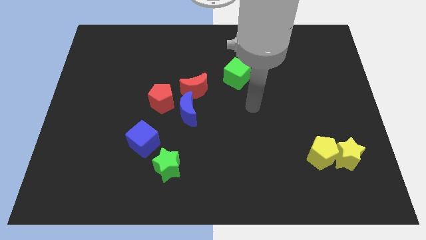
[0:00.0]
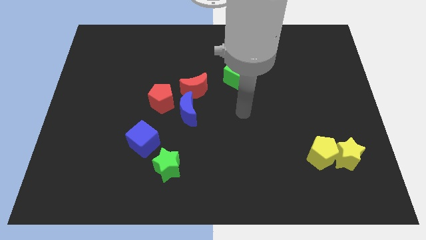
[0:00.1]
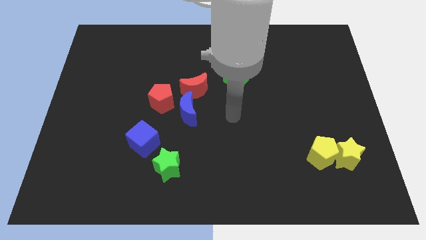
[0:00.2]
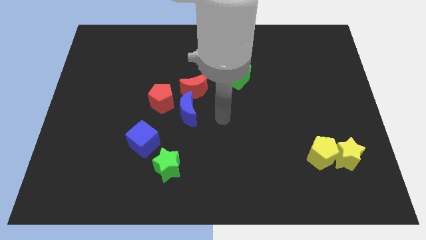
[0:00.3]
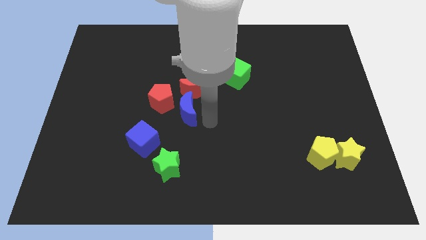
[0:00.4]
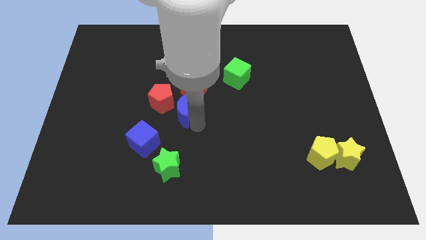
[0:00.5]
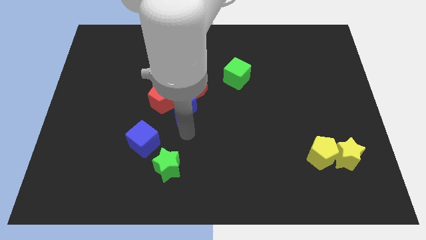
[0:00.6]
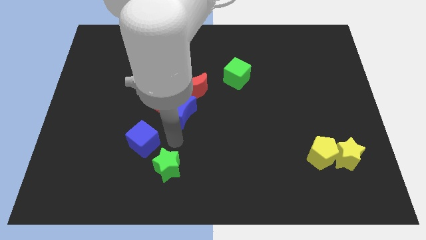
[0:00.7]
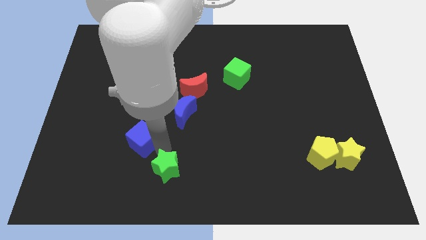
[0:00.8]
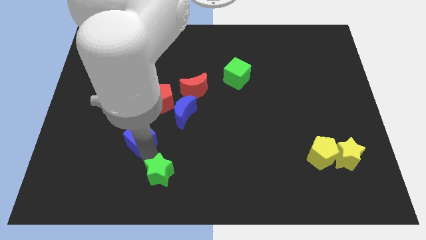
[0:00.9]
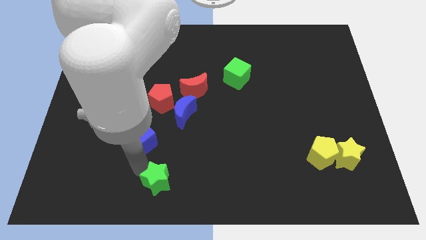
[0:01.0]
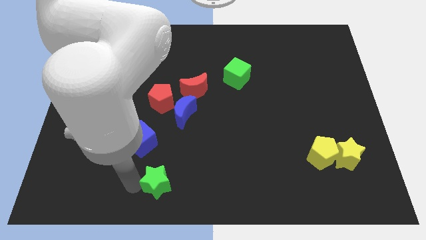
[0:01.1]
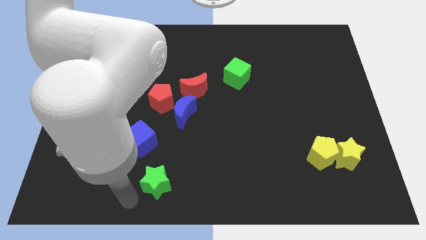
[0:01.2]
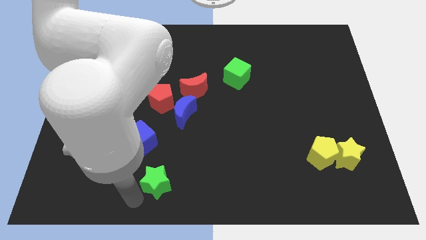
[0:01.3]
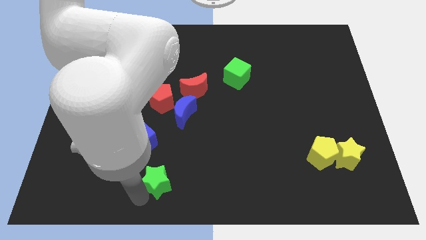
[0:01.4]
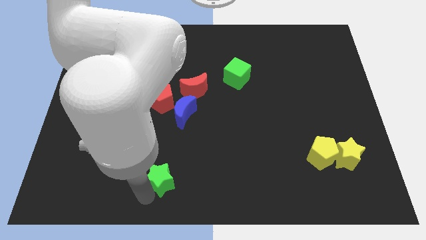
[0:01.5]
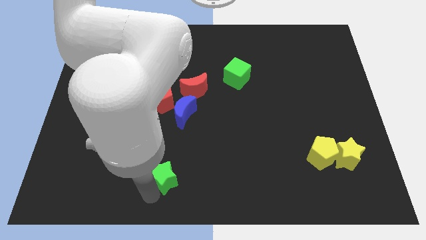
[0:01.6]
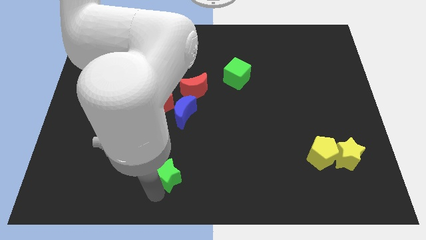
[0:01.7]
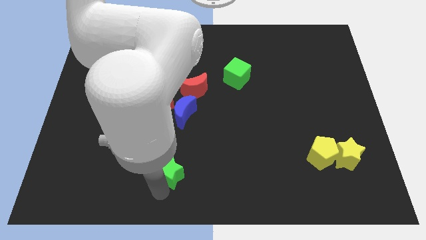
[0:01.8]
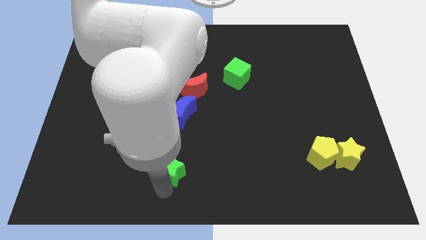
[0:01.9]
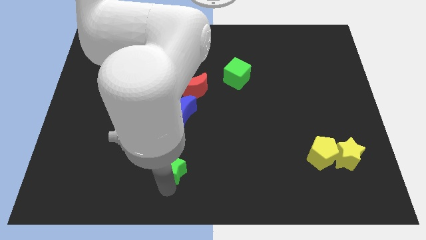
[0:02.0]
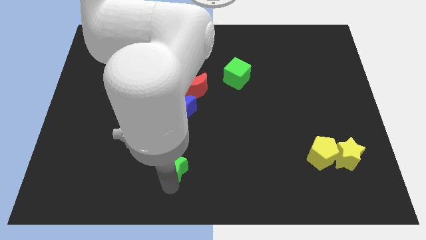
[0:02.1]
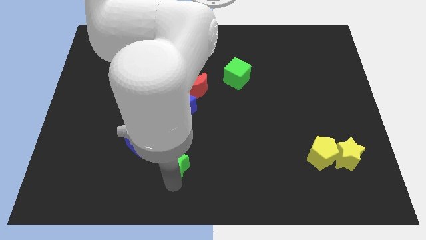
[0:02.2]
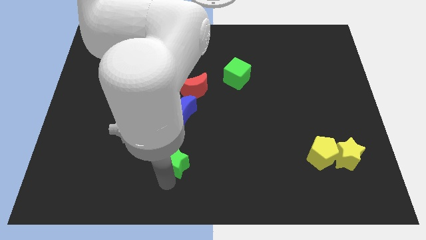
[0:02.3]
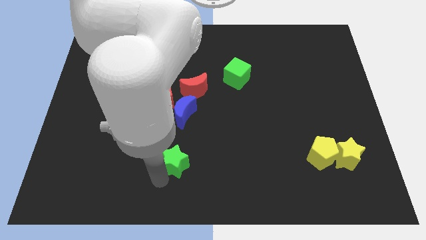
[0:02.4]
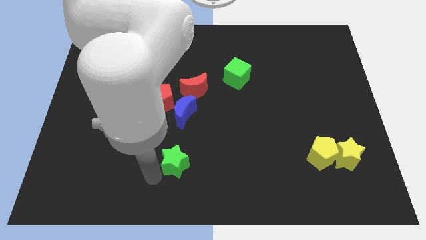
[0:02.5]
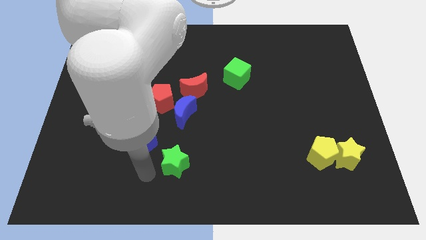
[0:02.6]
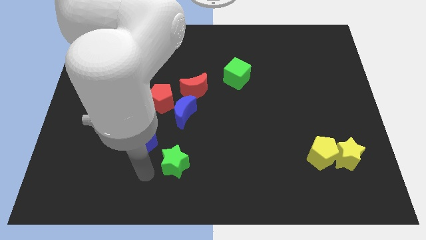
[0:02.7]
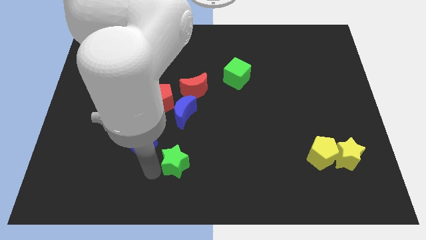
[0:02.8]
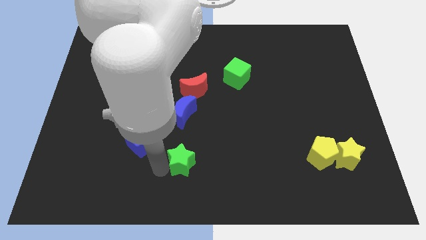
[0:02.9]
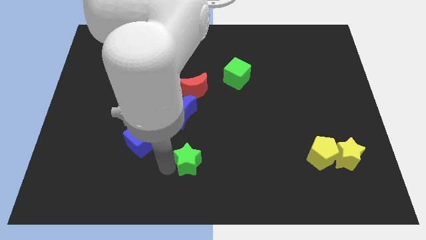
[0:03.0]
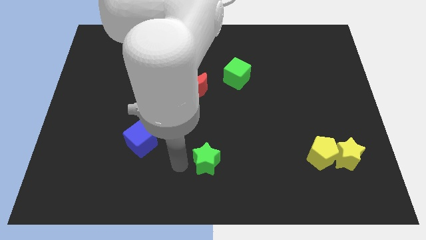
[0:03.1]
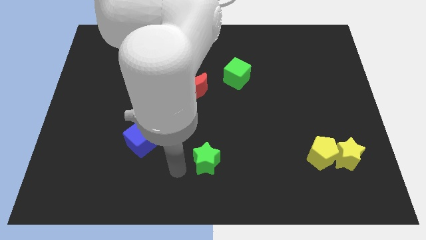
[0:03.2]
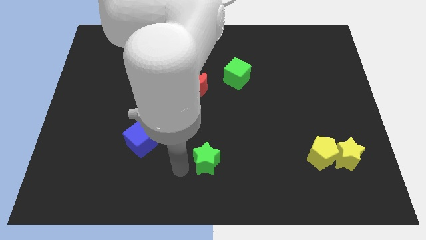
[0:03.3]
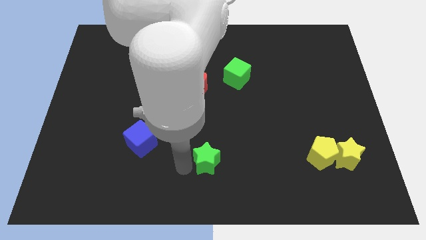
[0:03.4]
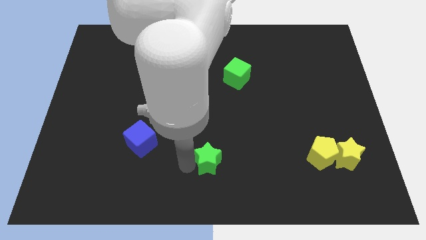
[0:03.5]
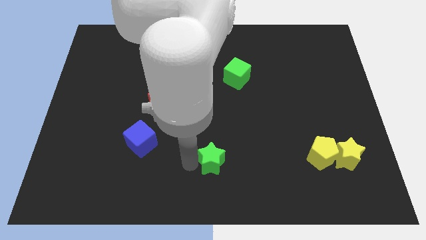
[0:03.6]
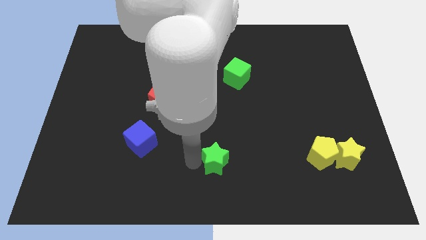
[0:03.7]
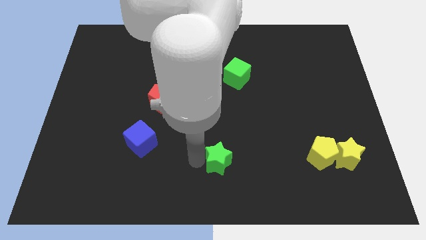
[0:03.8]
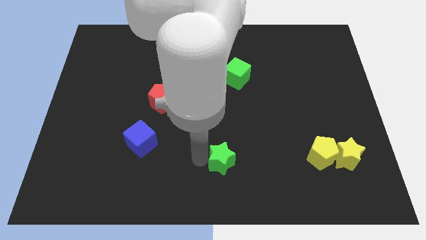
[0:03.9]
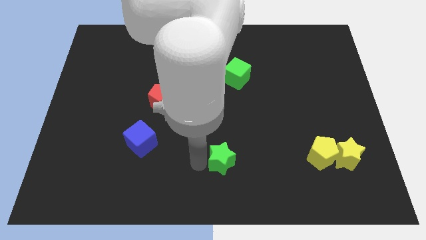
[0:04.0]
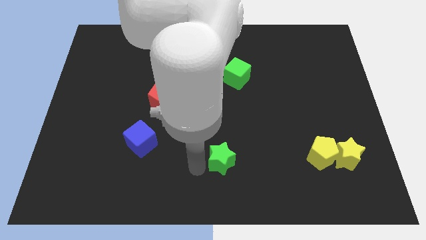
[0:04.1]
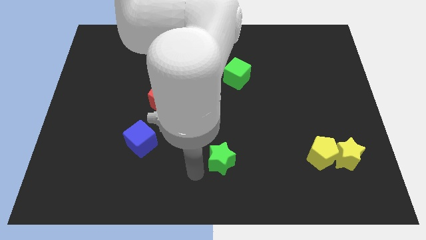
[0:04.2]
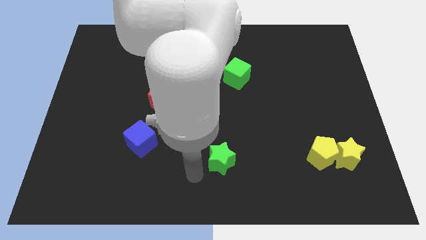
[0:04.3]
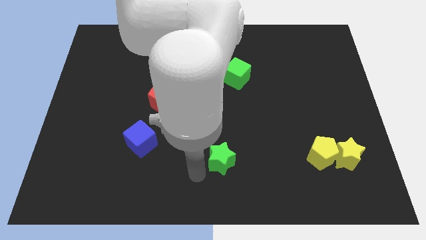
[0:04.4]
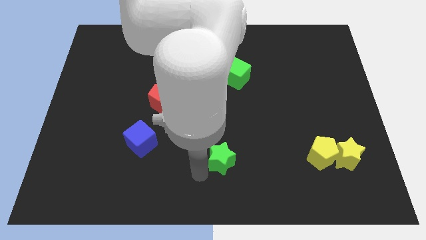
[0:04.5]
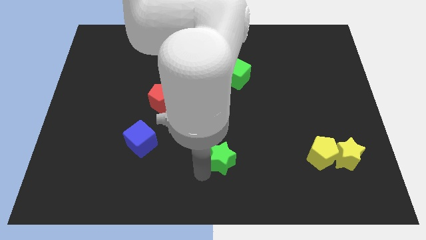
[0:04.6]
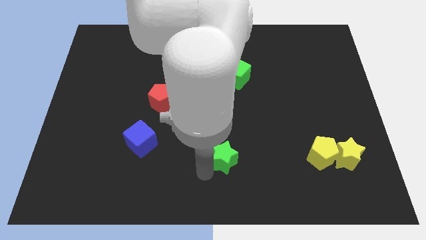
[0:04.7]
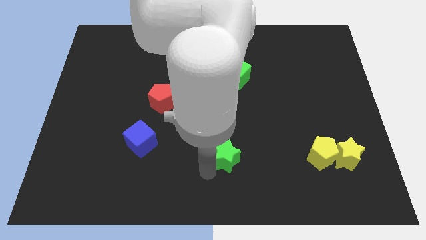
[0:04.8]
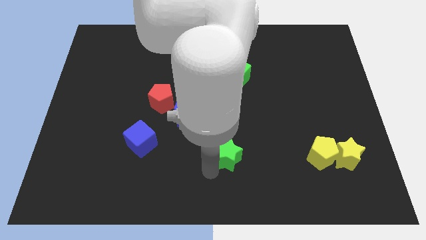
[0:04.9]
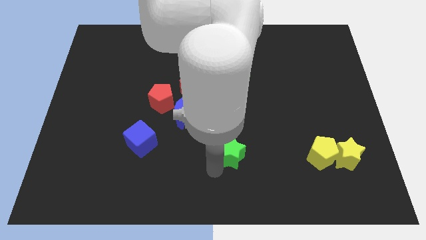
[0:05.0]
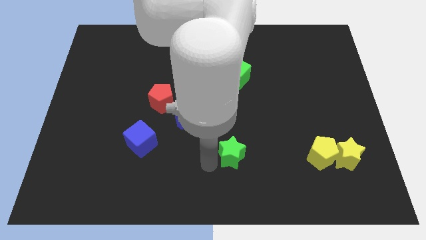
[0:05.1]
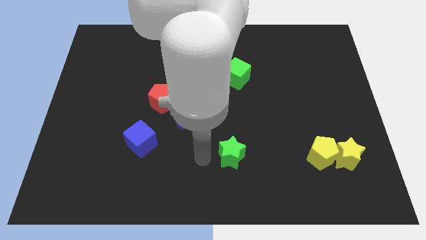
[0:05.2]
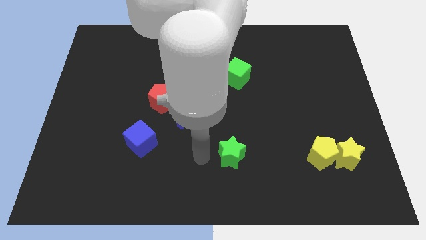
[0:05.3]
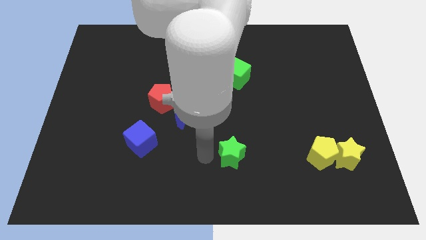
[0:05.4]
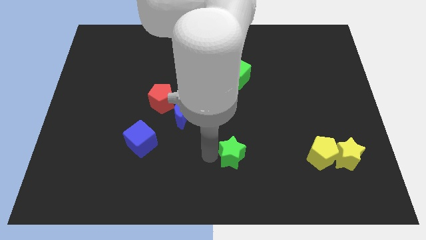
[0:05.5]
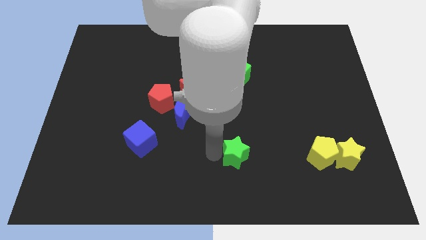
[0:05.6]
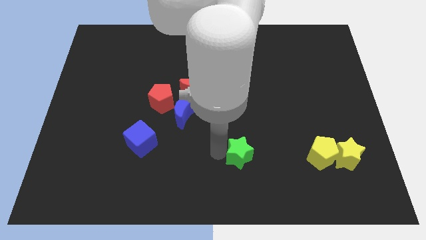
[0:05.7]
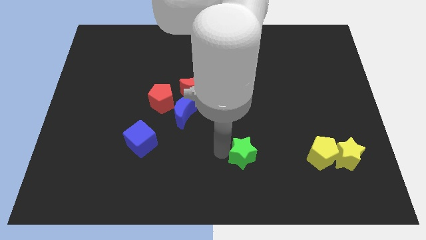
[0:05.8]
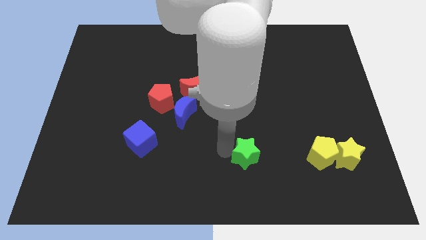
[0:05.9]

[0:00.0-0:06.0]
move the green star to the left of the yellow pentagon
